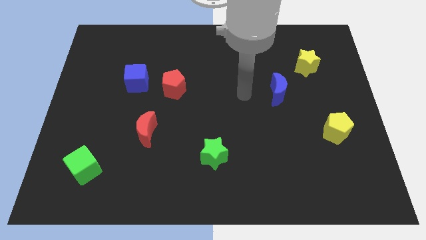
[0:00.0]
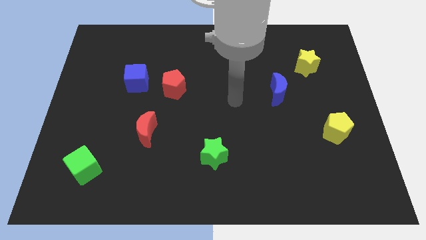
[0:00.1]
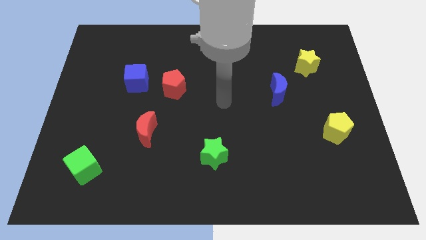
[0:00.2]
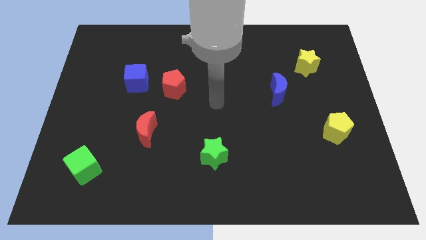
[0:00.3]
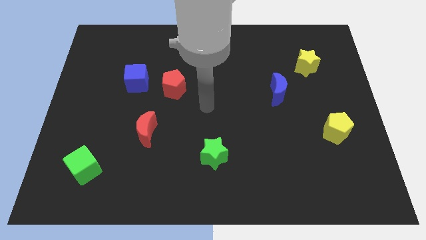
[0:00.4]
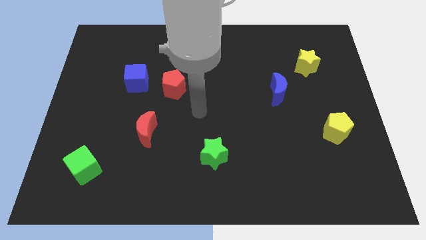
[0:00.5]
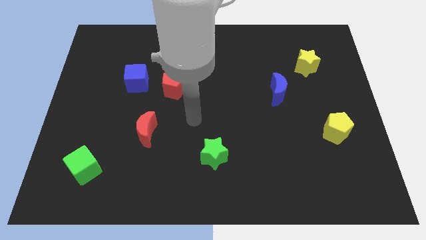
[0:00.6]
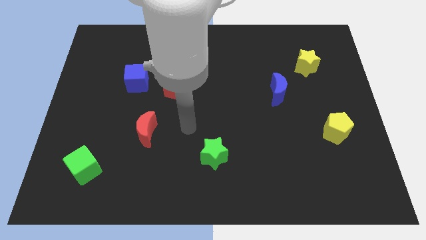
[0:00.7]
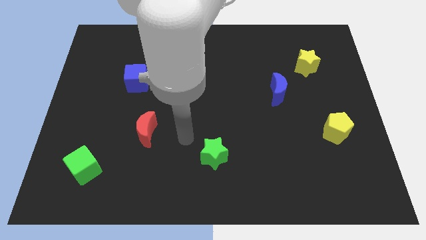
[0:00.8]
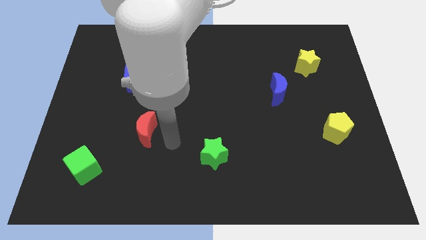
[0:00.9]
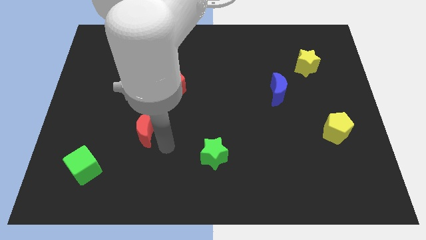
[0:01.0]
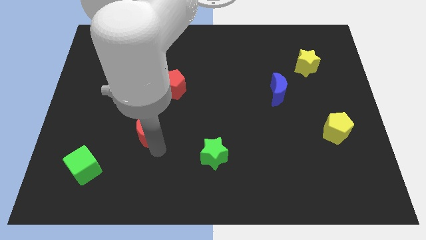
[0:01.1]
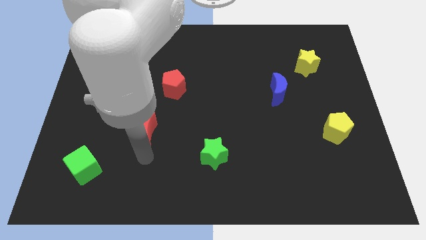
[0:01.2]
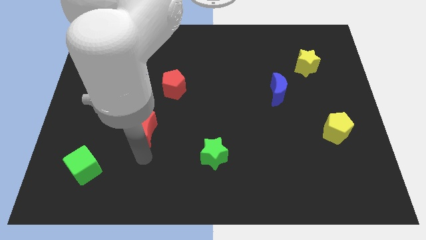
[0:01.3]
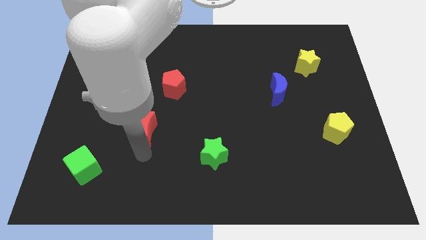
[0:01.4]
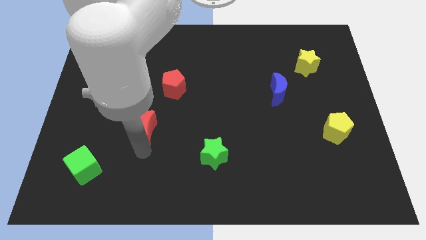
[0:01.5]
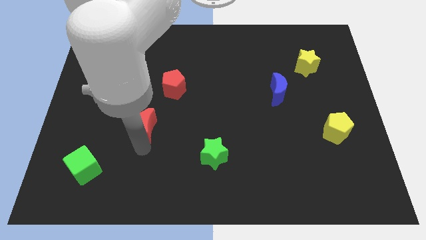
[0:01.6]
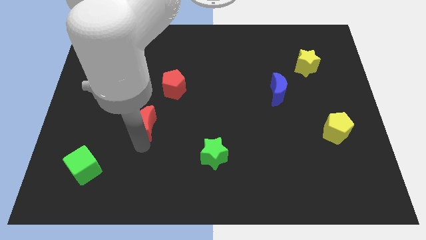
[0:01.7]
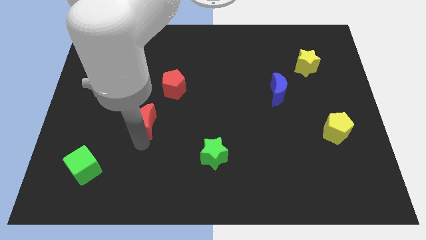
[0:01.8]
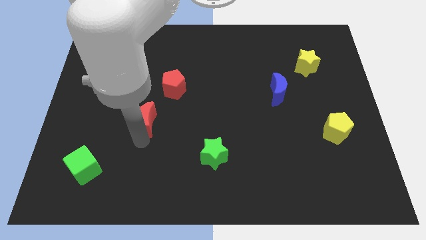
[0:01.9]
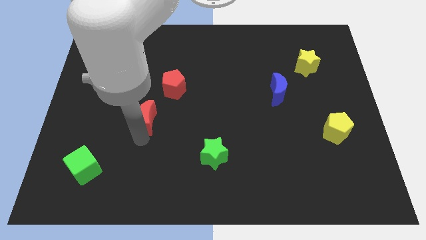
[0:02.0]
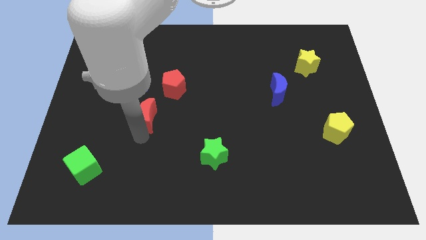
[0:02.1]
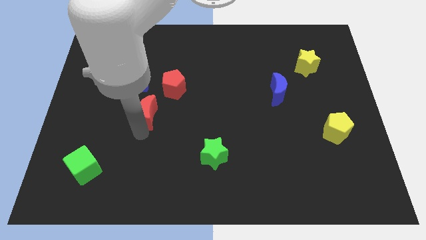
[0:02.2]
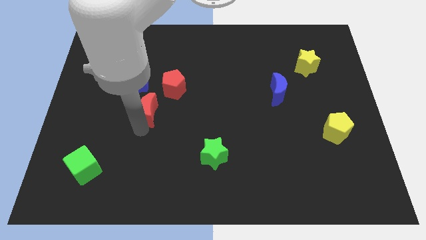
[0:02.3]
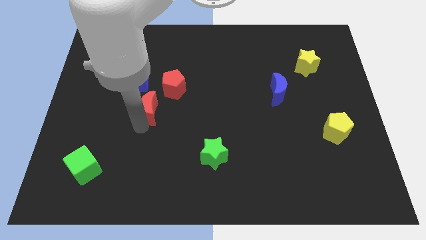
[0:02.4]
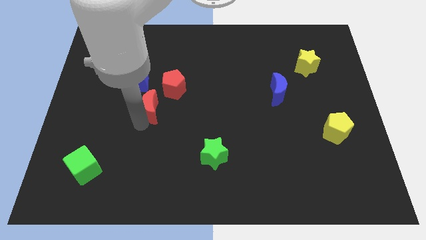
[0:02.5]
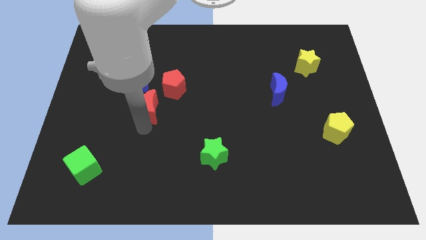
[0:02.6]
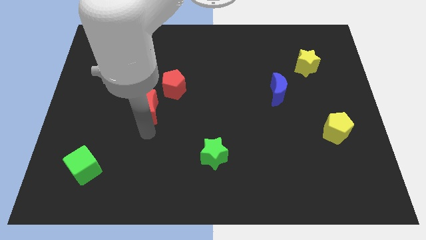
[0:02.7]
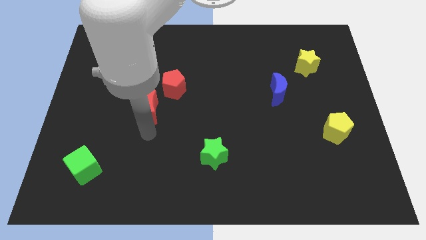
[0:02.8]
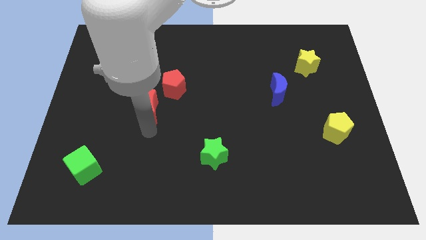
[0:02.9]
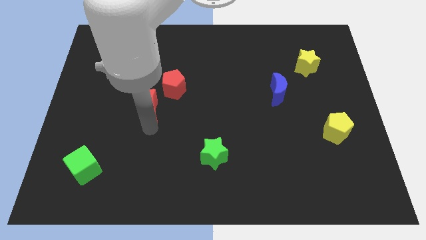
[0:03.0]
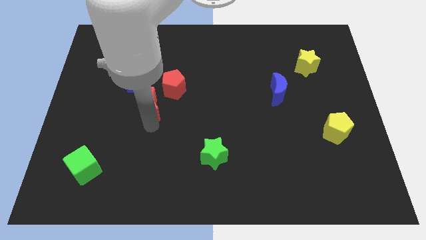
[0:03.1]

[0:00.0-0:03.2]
slightly move the red moon upwards

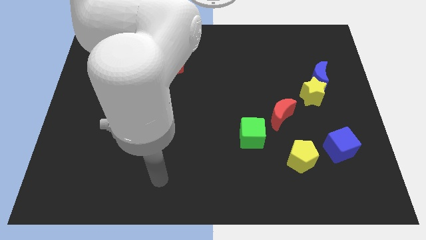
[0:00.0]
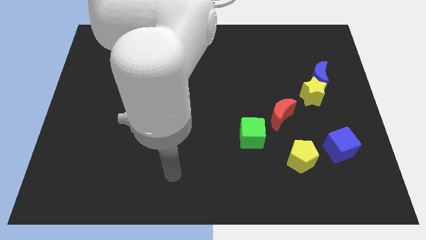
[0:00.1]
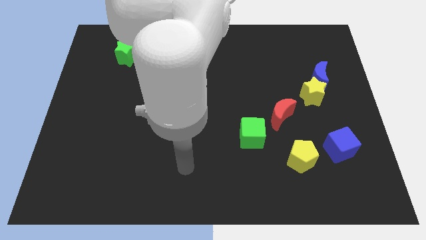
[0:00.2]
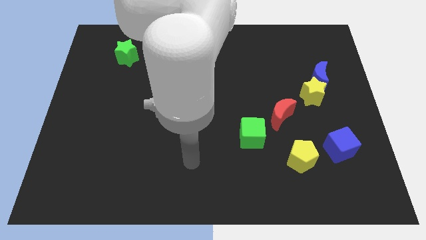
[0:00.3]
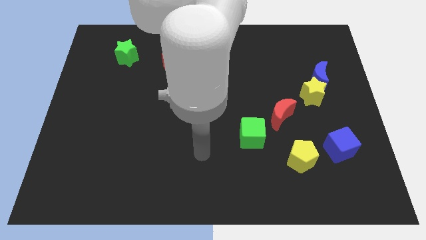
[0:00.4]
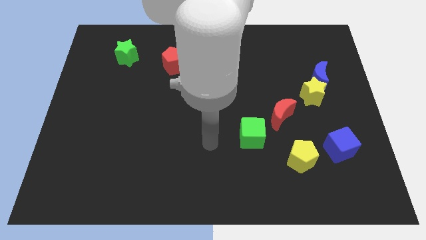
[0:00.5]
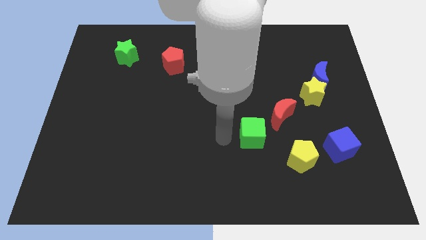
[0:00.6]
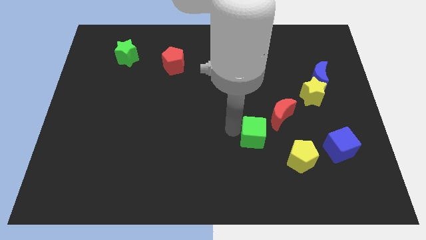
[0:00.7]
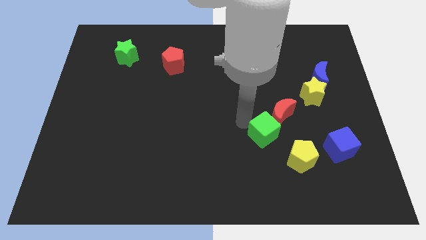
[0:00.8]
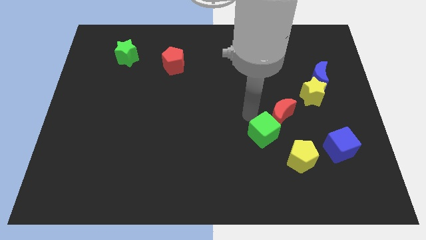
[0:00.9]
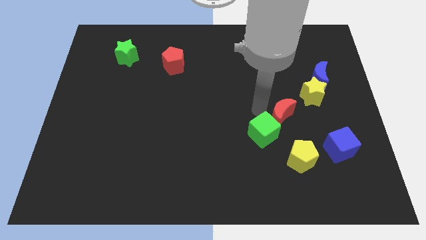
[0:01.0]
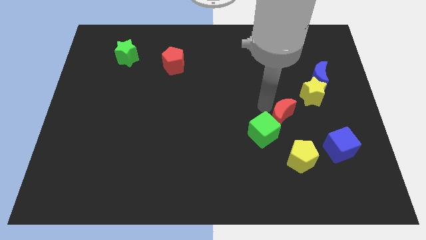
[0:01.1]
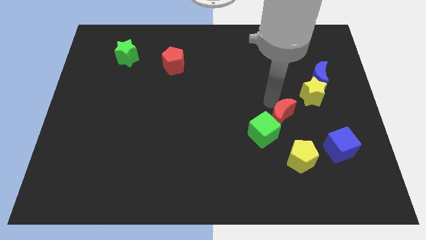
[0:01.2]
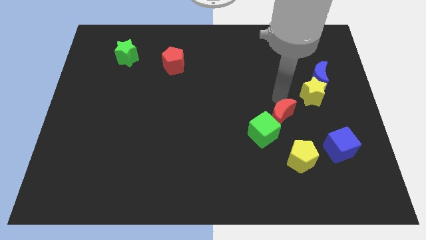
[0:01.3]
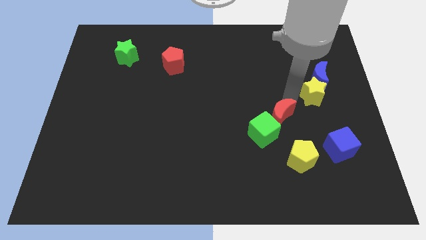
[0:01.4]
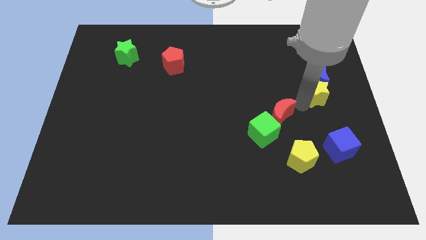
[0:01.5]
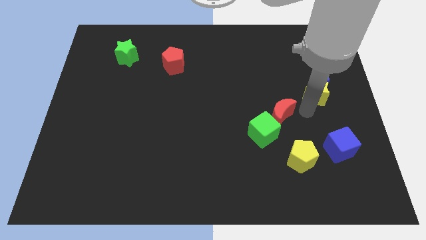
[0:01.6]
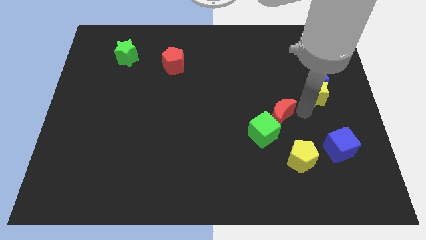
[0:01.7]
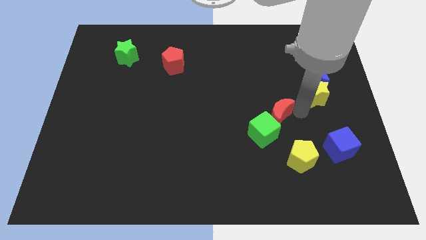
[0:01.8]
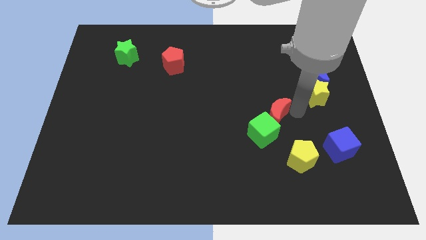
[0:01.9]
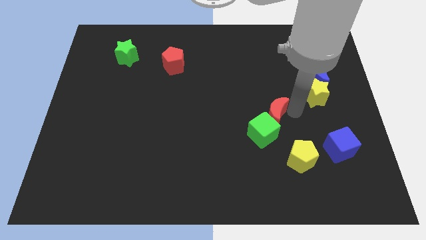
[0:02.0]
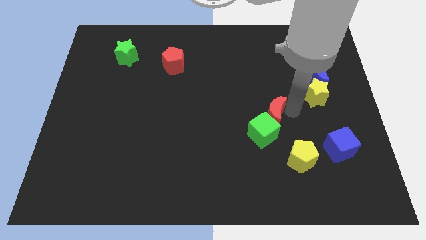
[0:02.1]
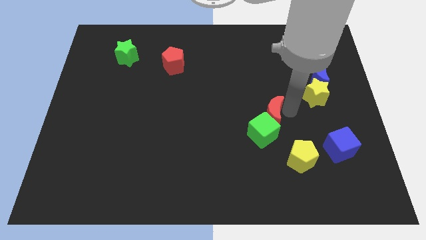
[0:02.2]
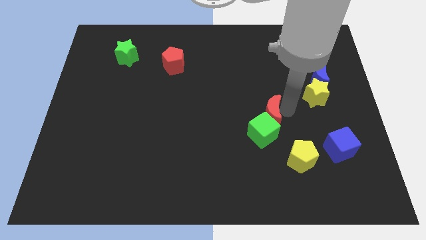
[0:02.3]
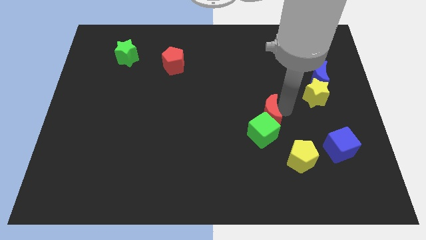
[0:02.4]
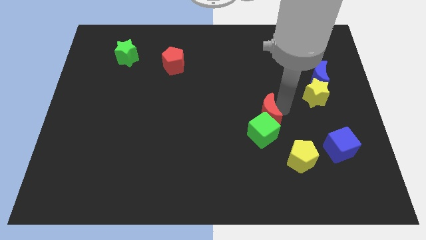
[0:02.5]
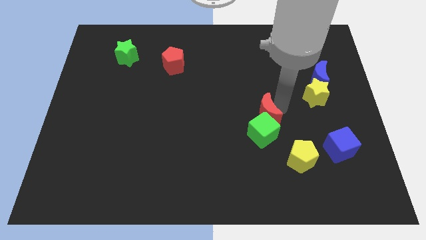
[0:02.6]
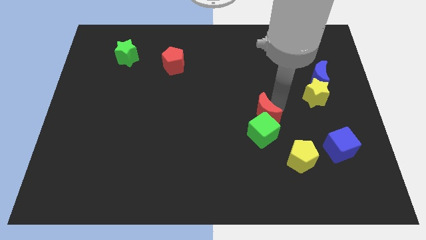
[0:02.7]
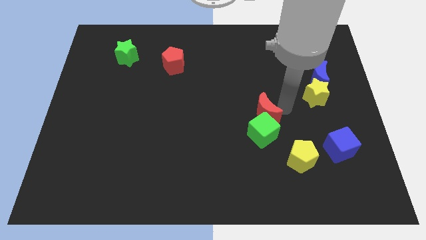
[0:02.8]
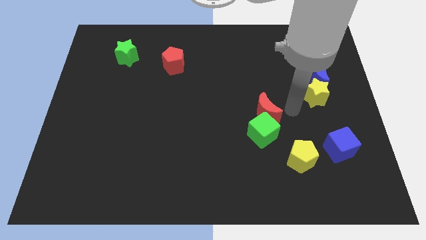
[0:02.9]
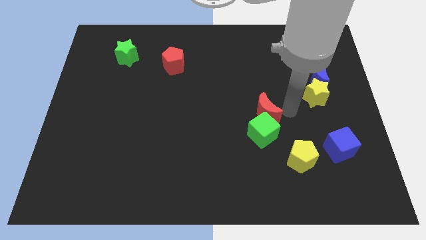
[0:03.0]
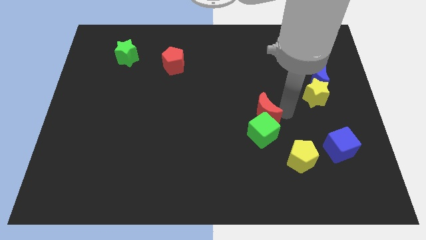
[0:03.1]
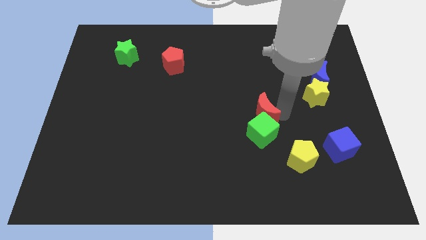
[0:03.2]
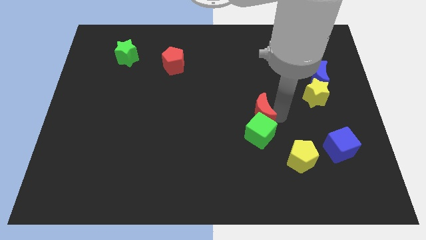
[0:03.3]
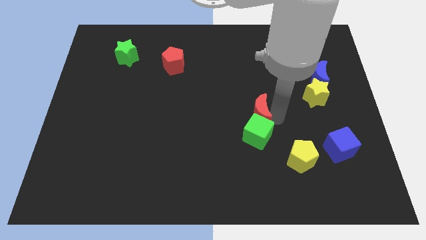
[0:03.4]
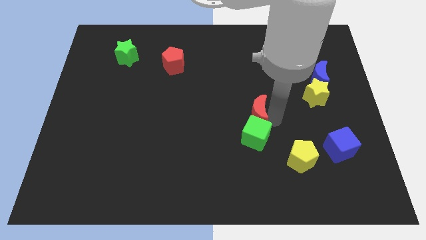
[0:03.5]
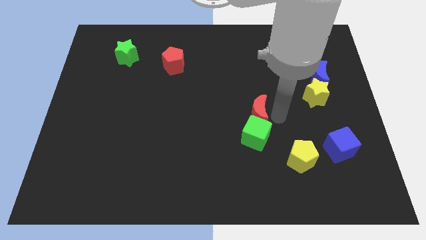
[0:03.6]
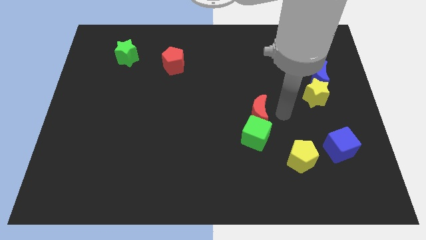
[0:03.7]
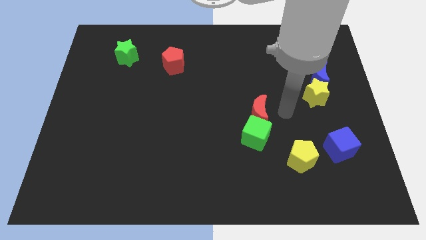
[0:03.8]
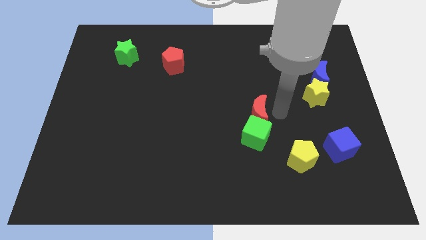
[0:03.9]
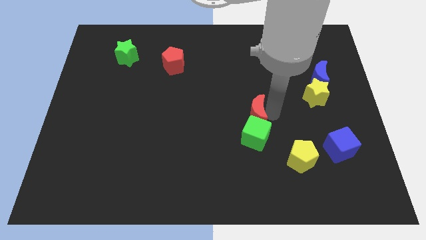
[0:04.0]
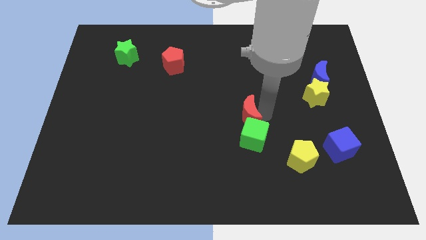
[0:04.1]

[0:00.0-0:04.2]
slide the red moon a little left

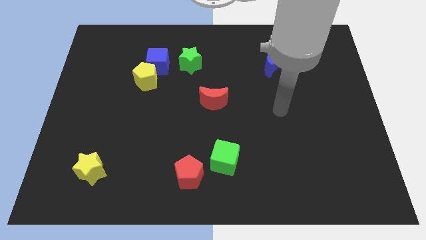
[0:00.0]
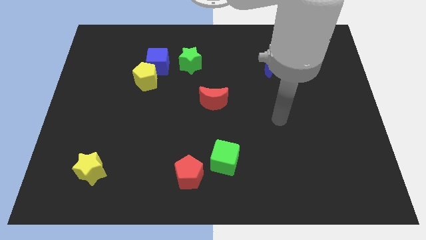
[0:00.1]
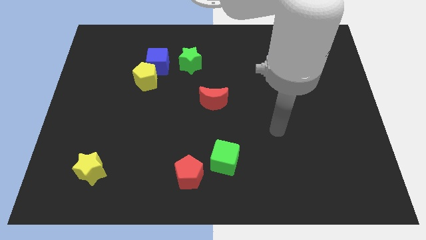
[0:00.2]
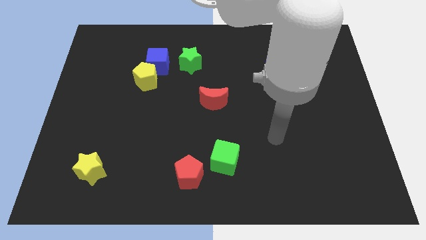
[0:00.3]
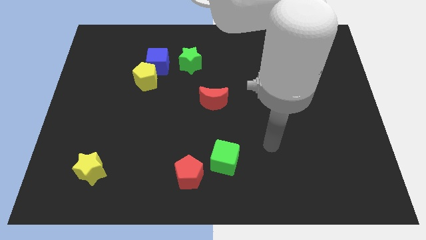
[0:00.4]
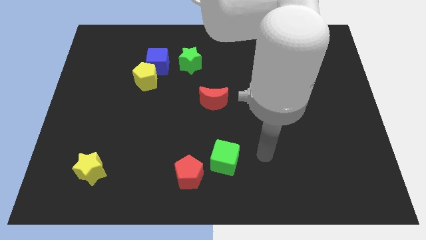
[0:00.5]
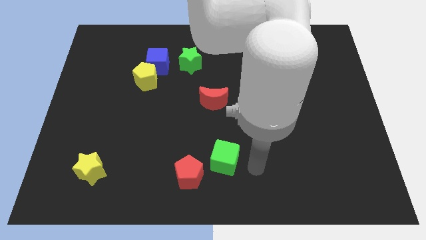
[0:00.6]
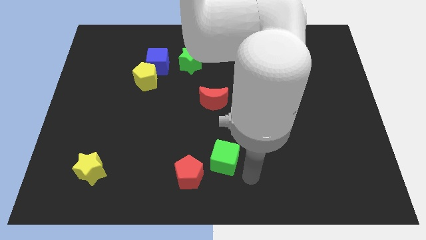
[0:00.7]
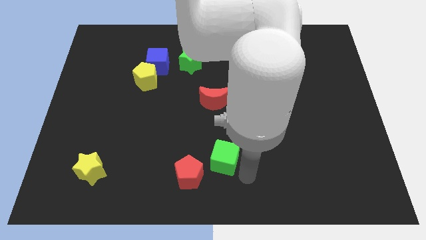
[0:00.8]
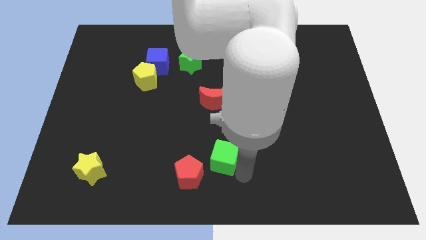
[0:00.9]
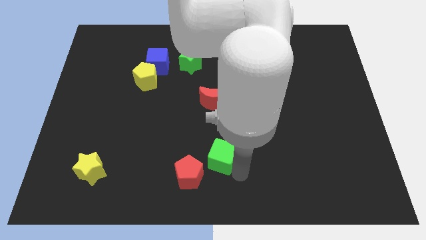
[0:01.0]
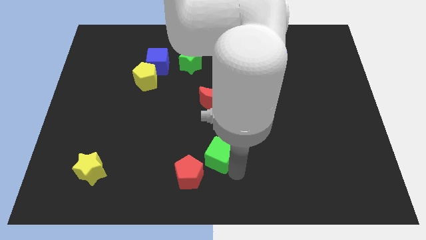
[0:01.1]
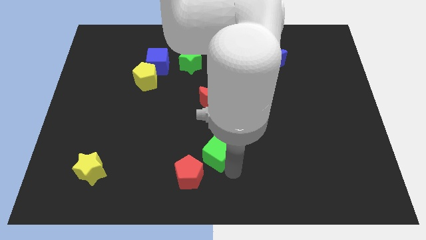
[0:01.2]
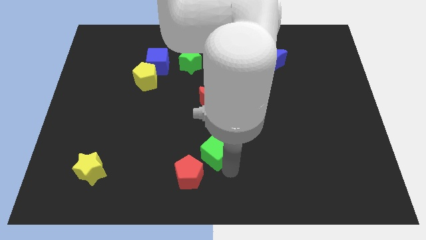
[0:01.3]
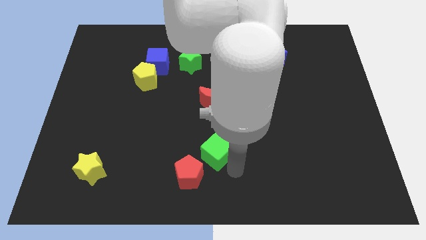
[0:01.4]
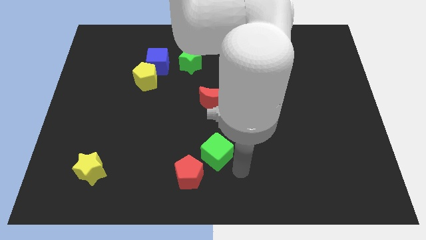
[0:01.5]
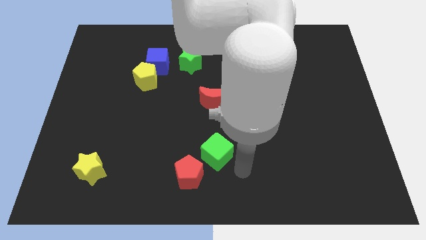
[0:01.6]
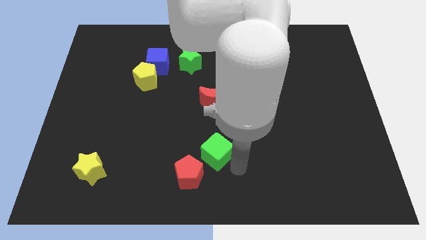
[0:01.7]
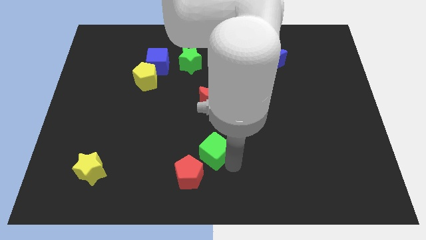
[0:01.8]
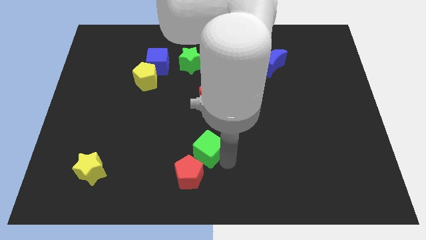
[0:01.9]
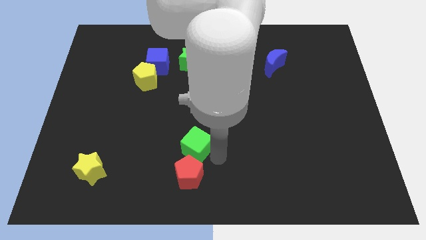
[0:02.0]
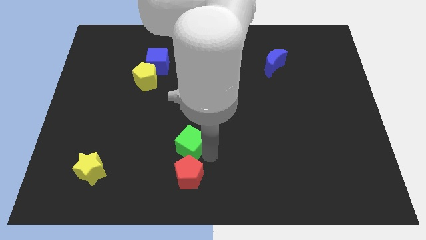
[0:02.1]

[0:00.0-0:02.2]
move the green cube up and to the left diagonally a bit
